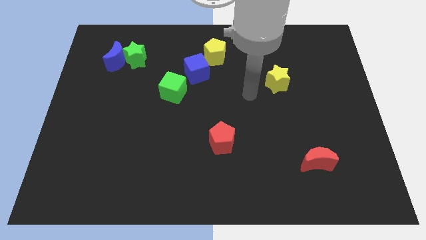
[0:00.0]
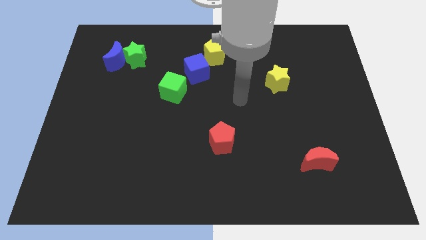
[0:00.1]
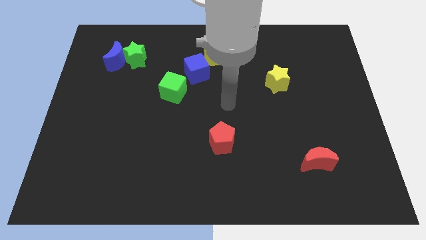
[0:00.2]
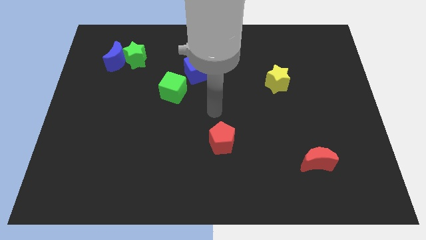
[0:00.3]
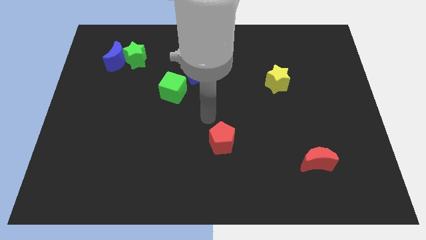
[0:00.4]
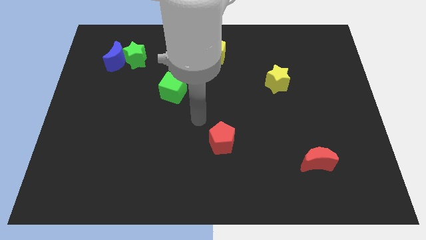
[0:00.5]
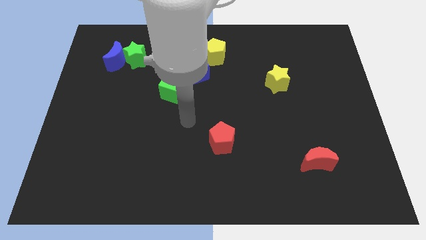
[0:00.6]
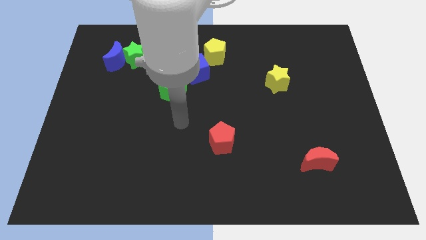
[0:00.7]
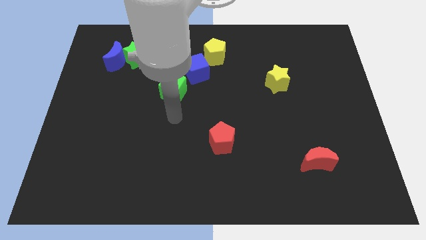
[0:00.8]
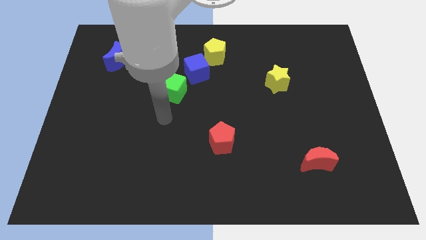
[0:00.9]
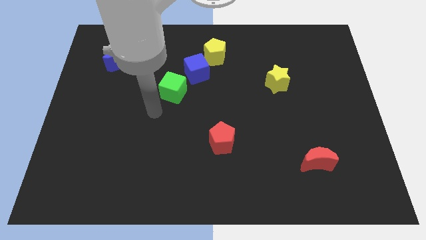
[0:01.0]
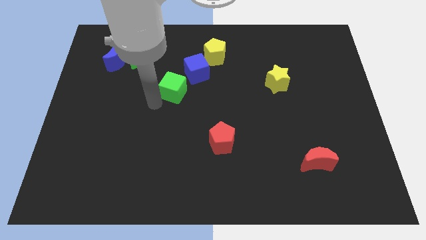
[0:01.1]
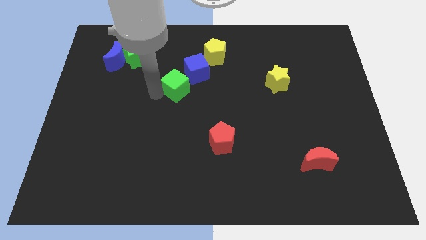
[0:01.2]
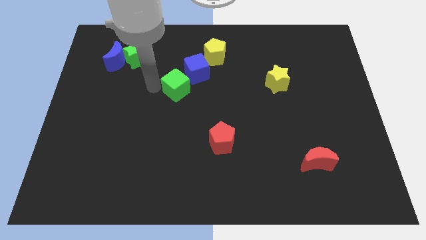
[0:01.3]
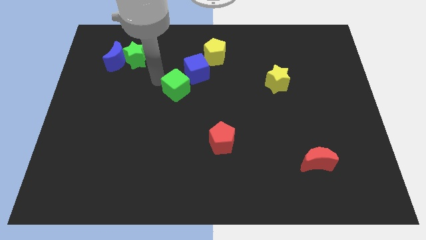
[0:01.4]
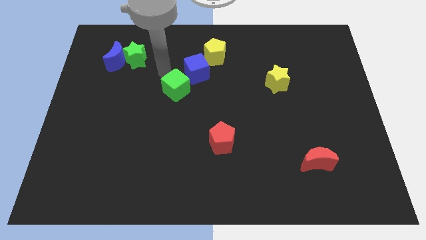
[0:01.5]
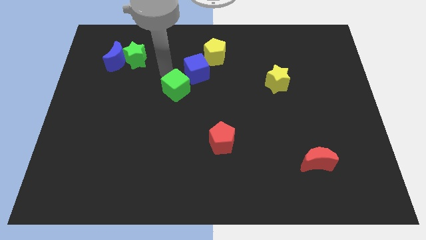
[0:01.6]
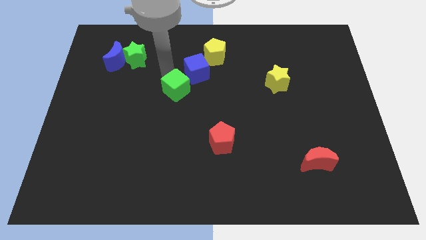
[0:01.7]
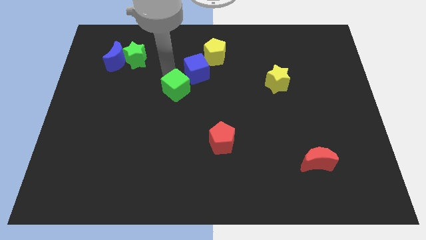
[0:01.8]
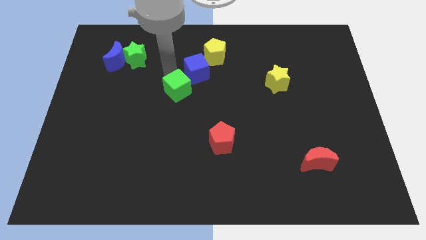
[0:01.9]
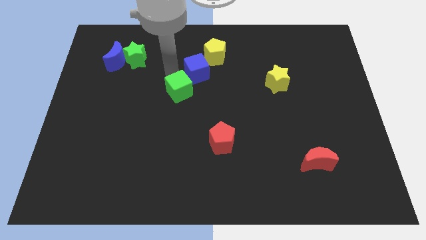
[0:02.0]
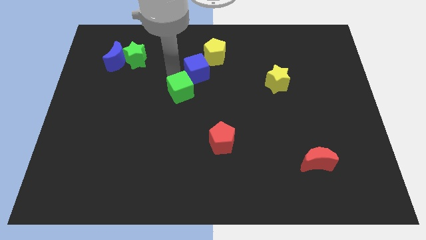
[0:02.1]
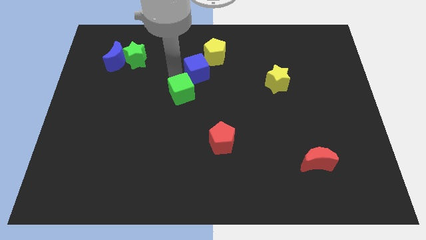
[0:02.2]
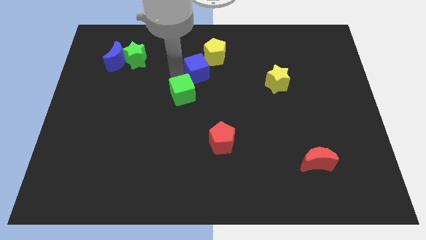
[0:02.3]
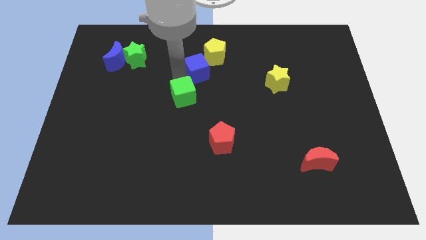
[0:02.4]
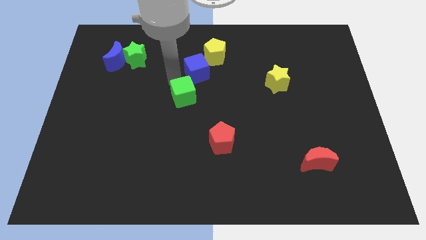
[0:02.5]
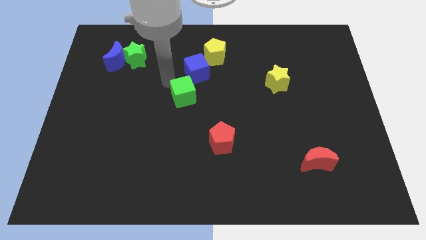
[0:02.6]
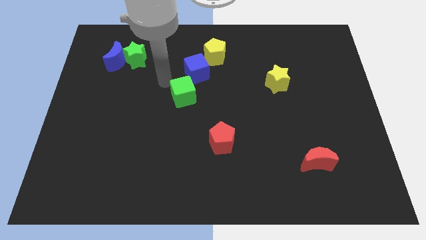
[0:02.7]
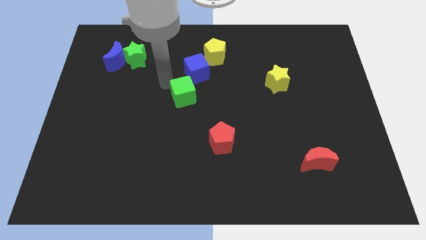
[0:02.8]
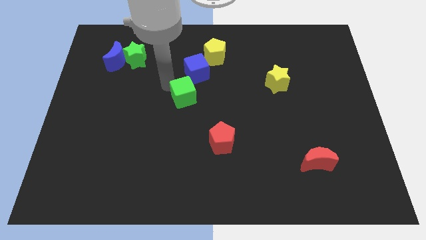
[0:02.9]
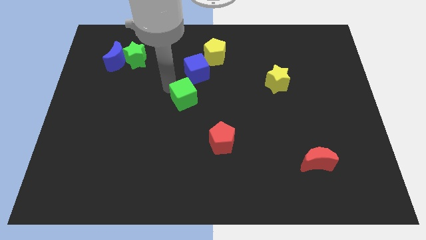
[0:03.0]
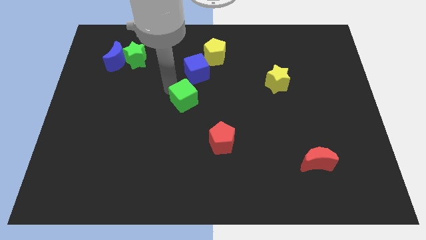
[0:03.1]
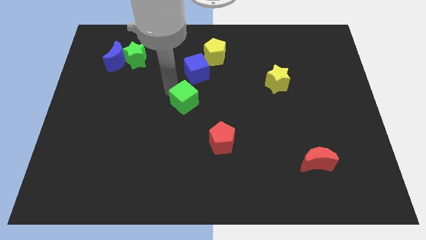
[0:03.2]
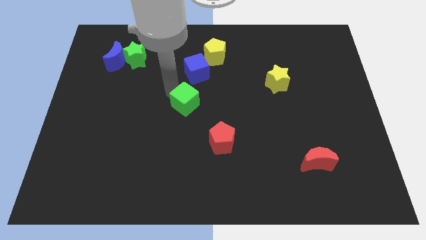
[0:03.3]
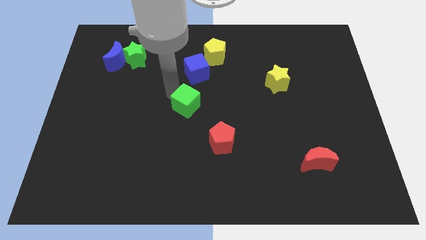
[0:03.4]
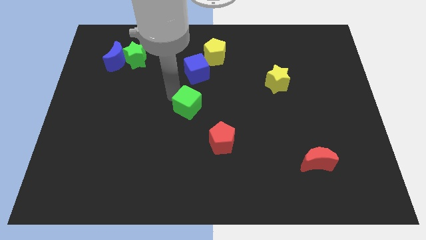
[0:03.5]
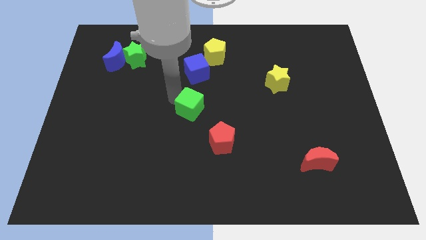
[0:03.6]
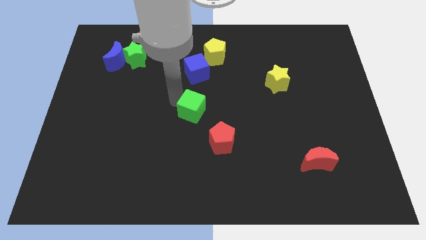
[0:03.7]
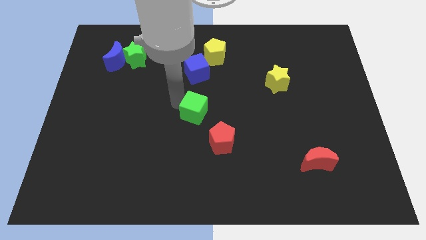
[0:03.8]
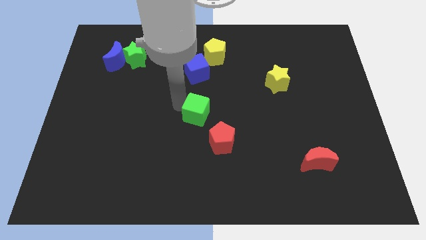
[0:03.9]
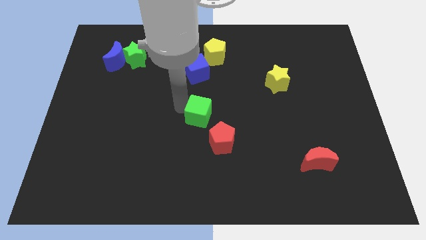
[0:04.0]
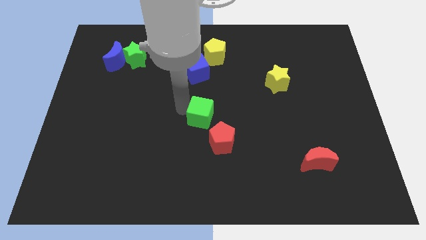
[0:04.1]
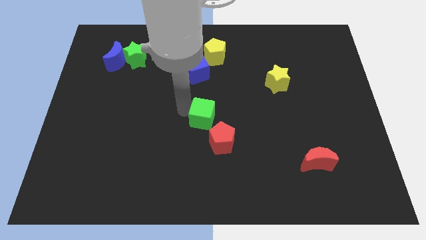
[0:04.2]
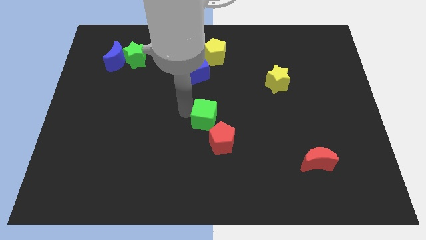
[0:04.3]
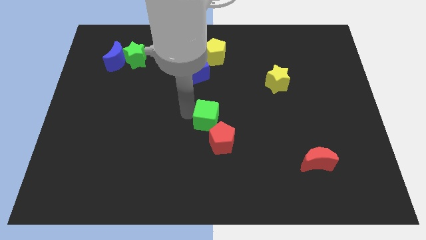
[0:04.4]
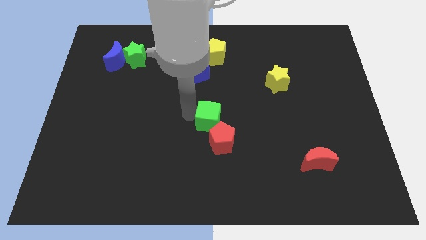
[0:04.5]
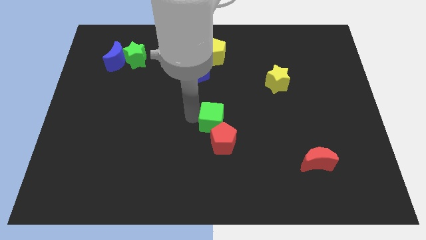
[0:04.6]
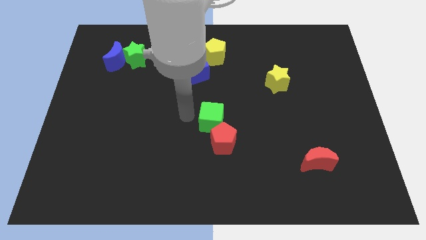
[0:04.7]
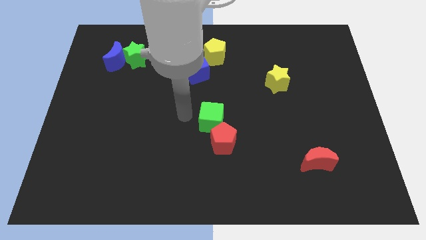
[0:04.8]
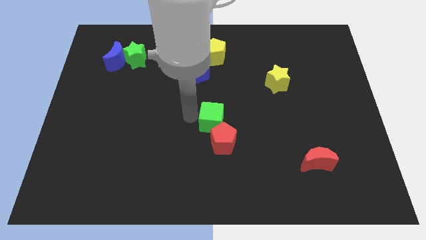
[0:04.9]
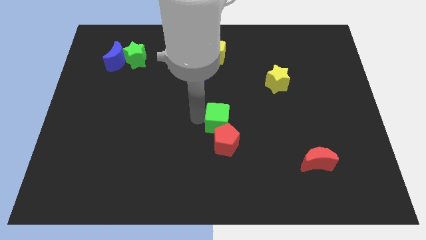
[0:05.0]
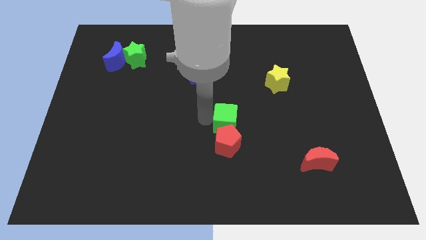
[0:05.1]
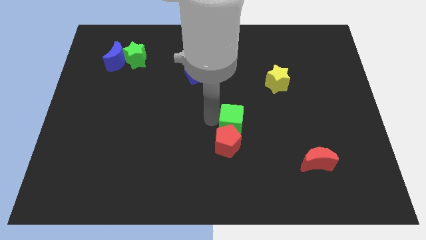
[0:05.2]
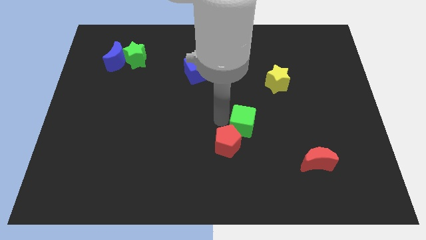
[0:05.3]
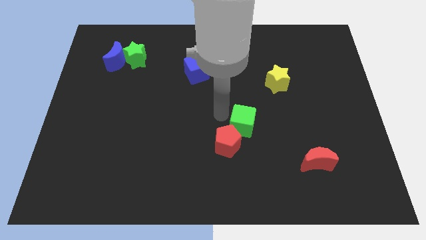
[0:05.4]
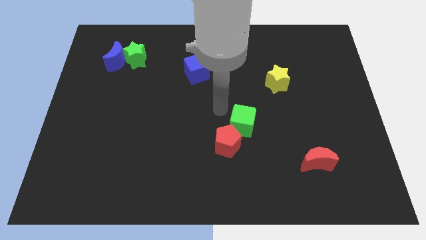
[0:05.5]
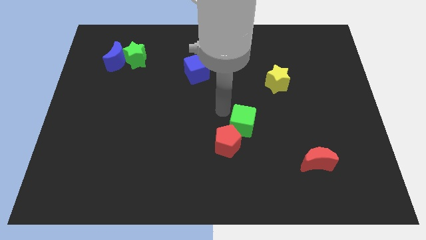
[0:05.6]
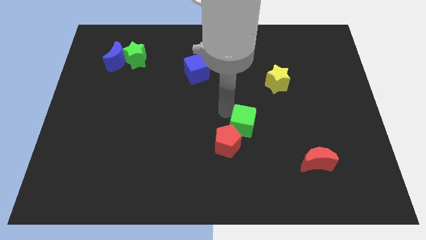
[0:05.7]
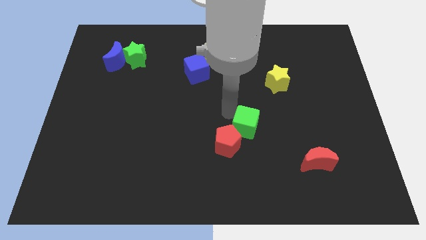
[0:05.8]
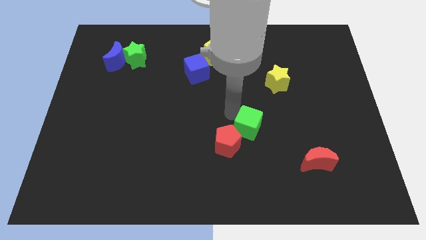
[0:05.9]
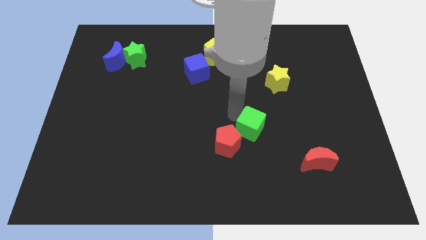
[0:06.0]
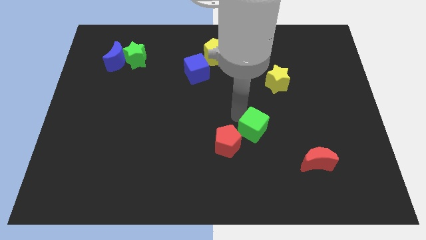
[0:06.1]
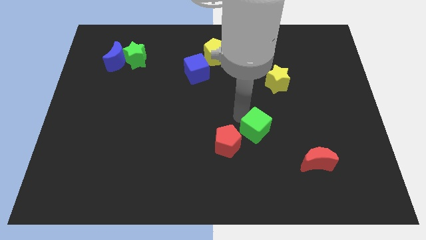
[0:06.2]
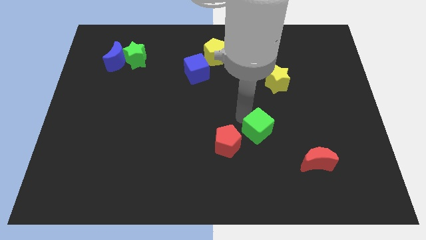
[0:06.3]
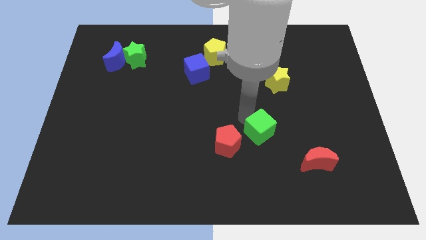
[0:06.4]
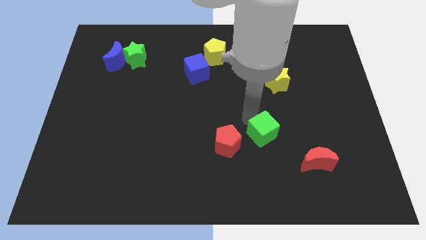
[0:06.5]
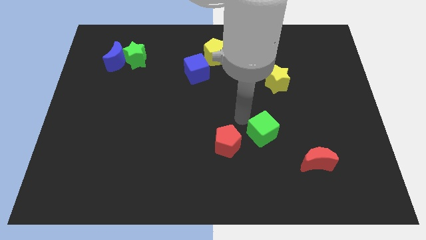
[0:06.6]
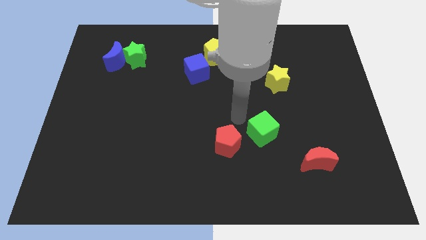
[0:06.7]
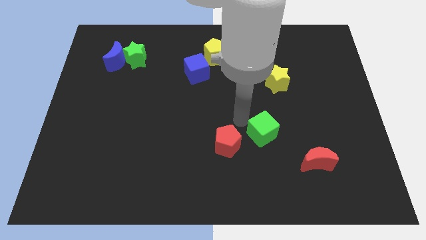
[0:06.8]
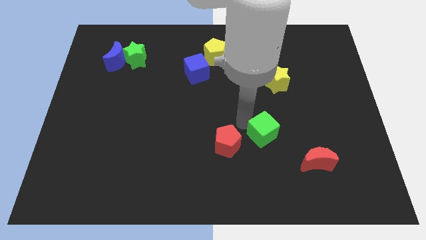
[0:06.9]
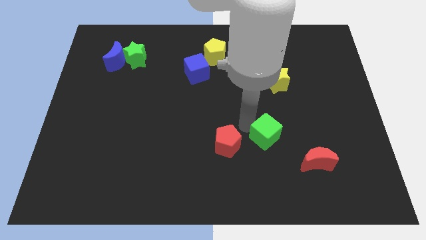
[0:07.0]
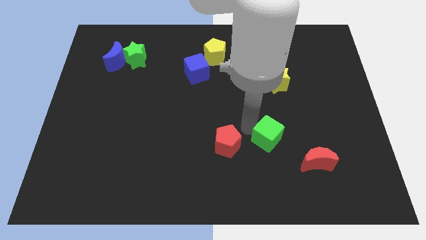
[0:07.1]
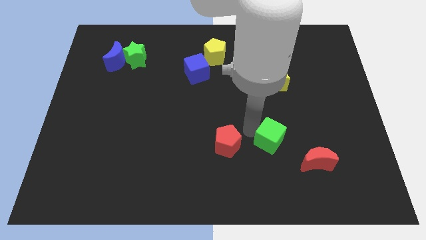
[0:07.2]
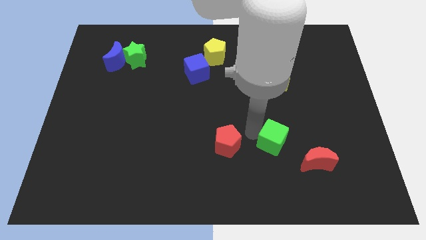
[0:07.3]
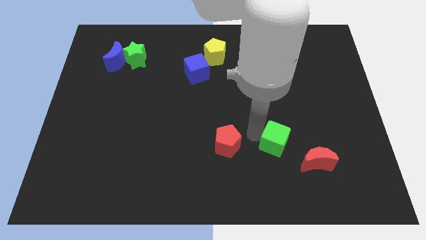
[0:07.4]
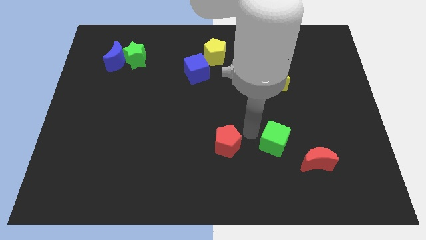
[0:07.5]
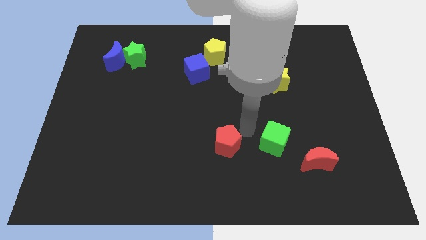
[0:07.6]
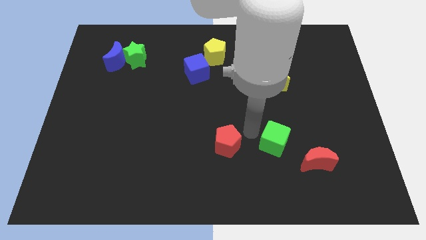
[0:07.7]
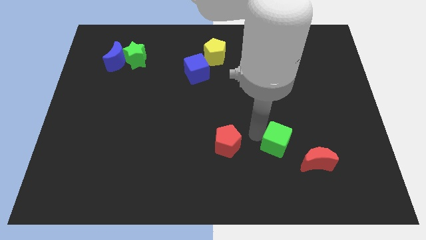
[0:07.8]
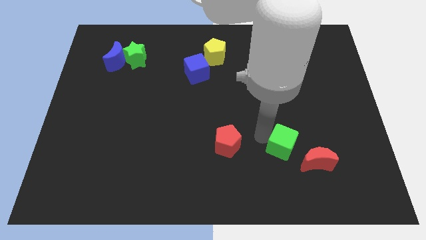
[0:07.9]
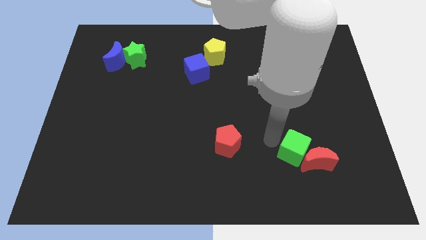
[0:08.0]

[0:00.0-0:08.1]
put the green cube next to the red moon
